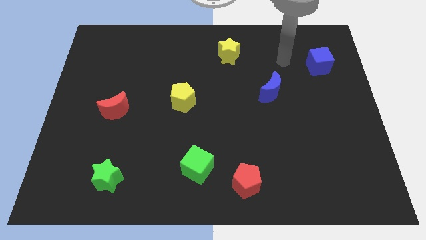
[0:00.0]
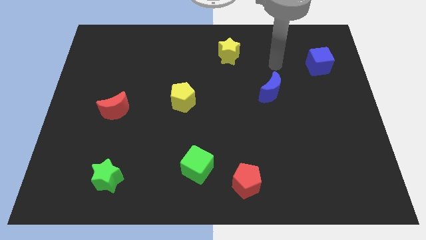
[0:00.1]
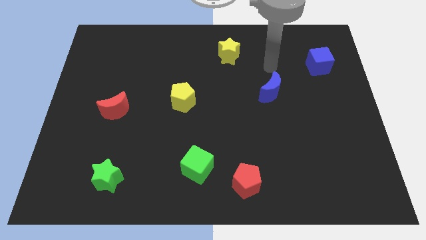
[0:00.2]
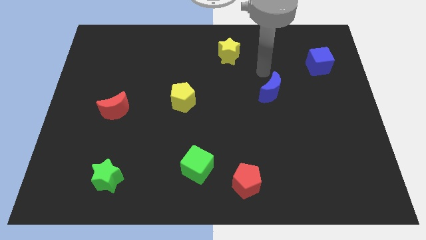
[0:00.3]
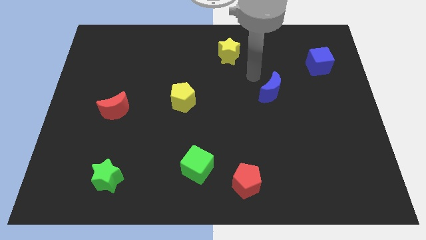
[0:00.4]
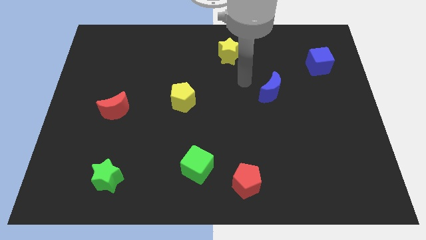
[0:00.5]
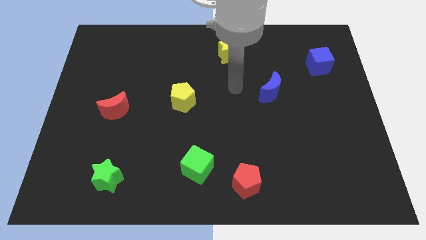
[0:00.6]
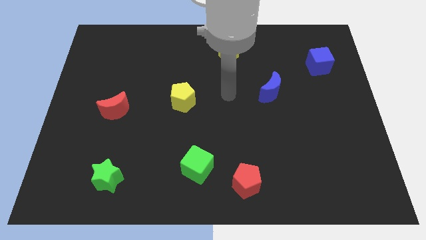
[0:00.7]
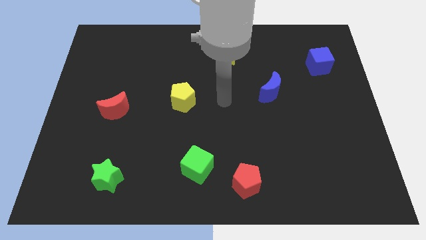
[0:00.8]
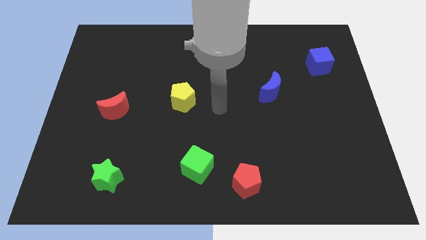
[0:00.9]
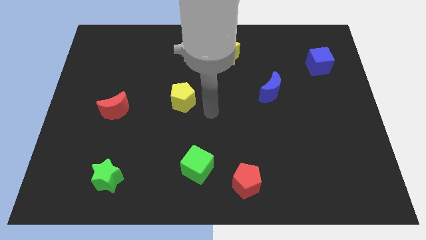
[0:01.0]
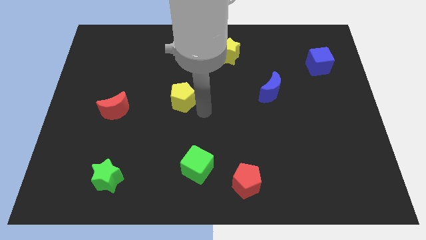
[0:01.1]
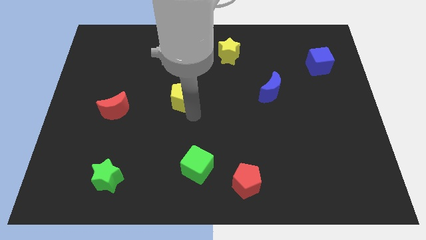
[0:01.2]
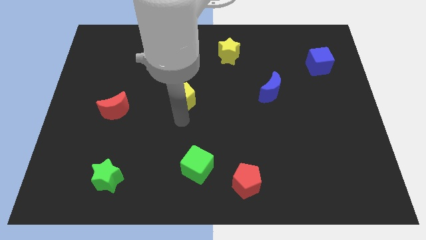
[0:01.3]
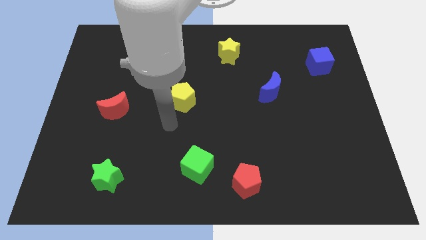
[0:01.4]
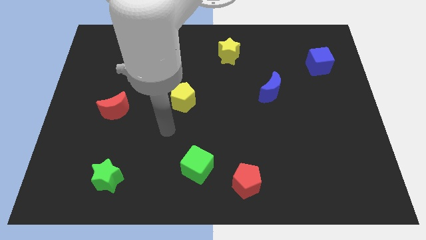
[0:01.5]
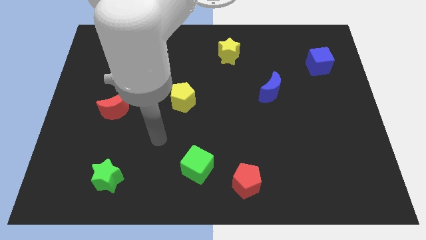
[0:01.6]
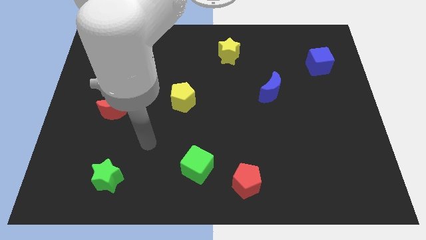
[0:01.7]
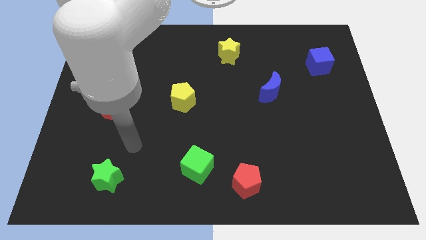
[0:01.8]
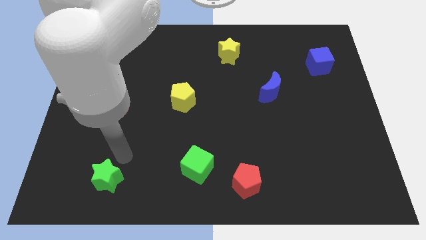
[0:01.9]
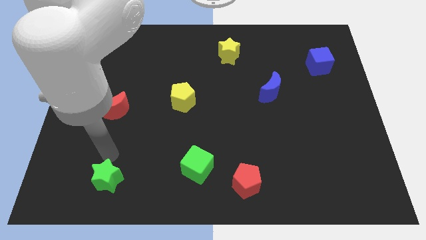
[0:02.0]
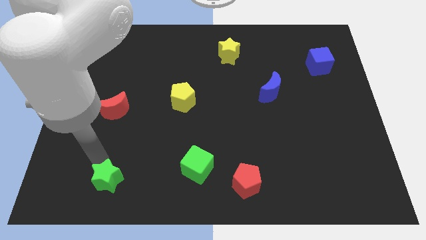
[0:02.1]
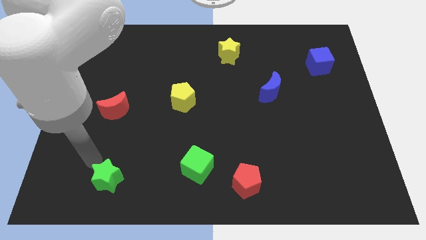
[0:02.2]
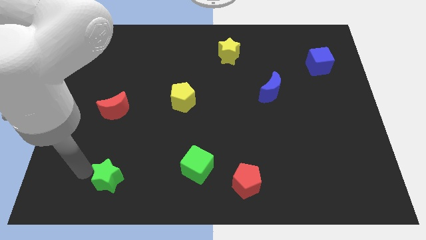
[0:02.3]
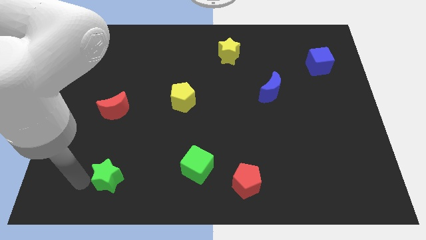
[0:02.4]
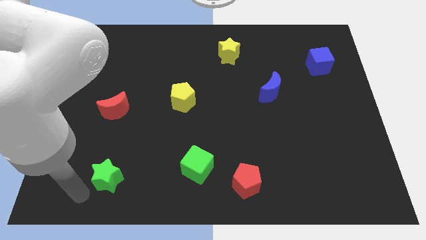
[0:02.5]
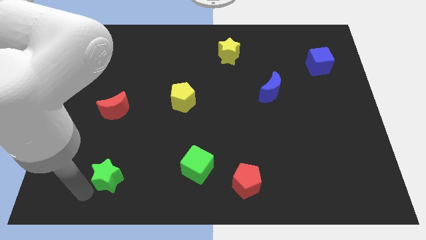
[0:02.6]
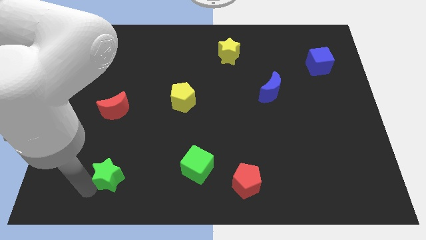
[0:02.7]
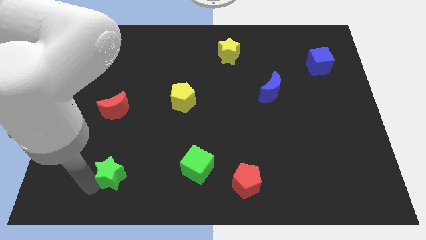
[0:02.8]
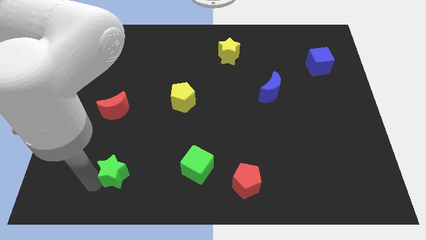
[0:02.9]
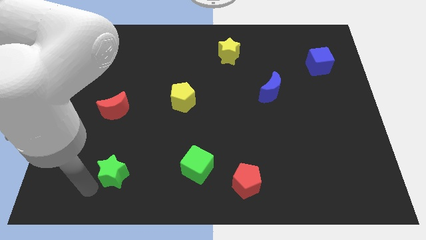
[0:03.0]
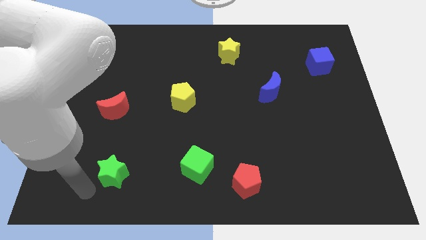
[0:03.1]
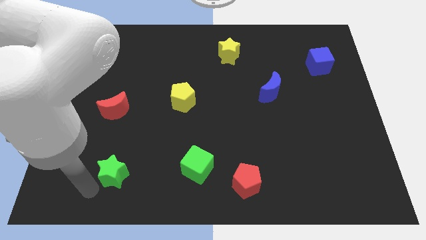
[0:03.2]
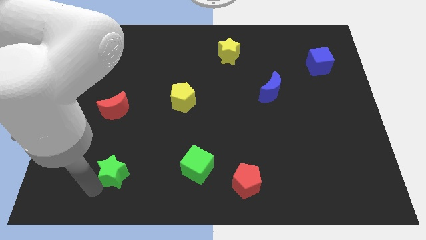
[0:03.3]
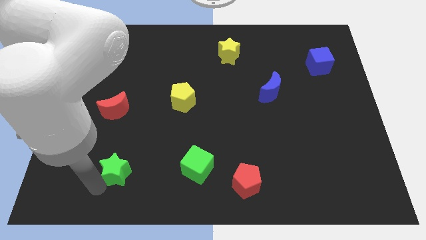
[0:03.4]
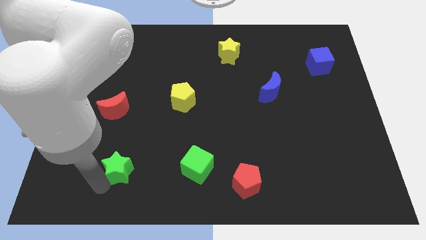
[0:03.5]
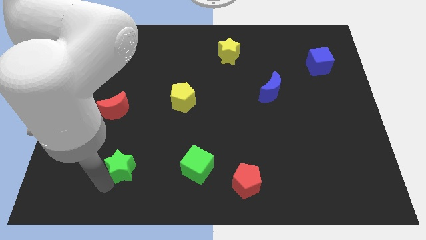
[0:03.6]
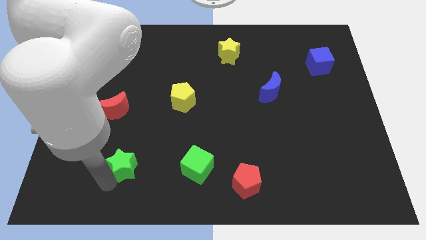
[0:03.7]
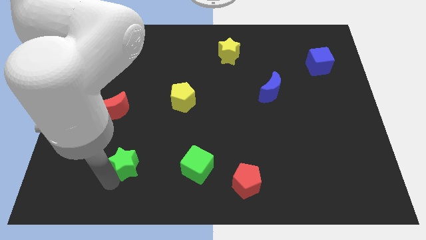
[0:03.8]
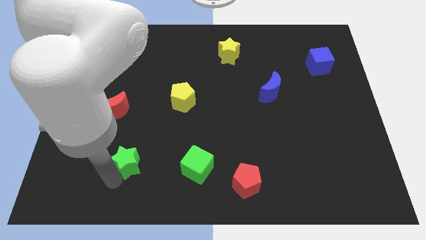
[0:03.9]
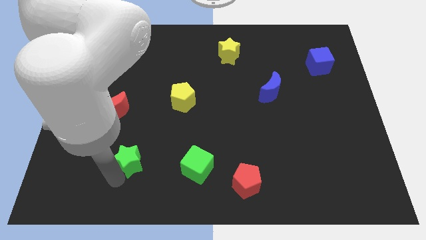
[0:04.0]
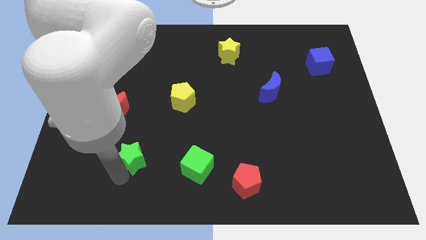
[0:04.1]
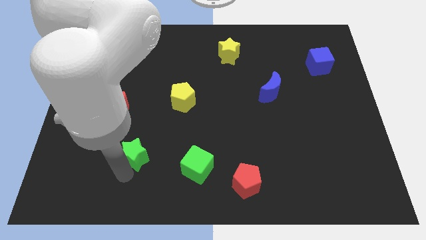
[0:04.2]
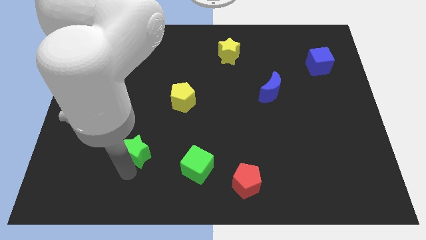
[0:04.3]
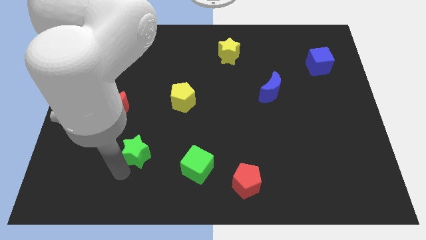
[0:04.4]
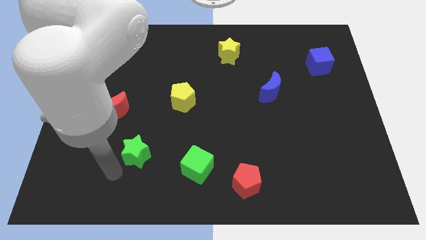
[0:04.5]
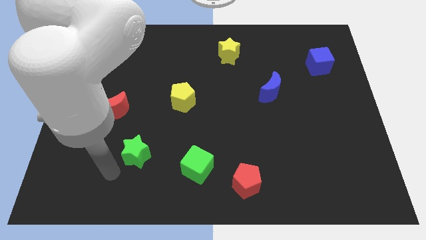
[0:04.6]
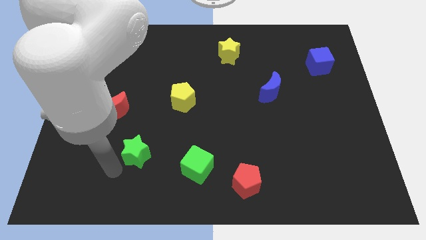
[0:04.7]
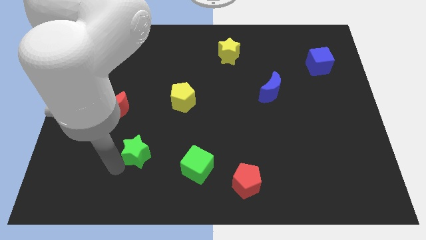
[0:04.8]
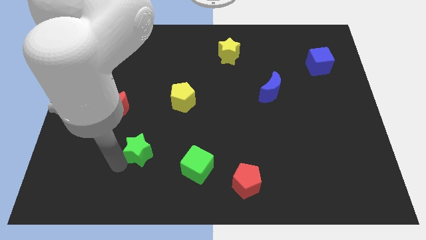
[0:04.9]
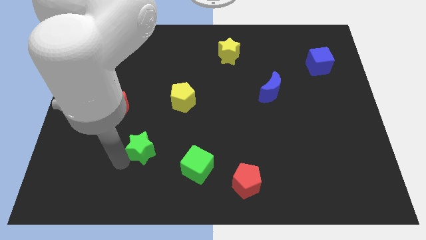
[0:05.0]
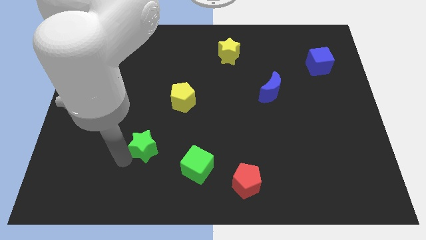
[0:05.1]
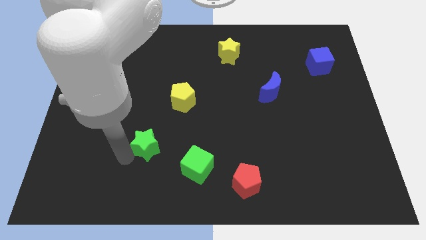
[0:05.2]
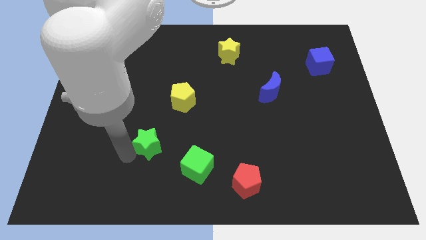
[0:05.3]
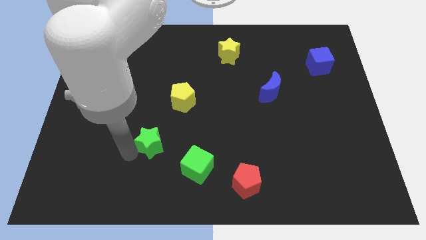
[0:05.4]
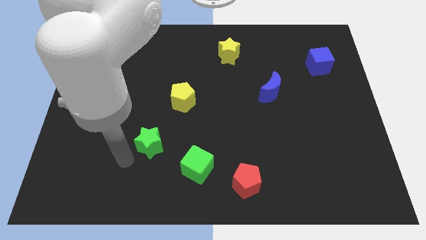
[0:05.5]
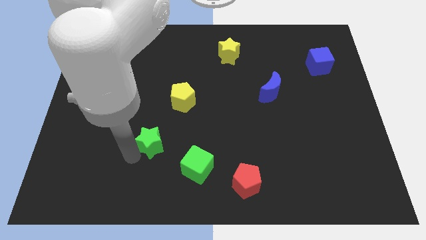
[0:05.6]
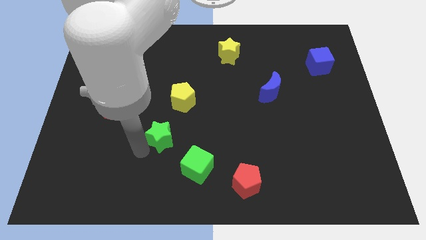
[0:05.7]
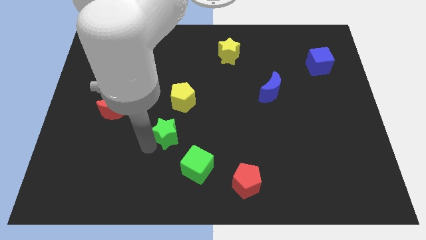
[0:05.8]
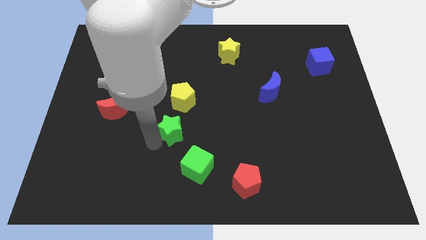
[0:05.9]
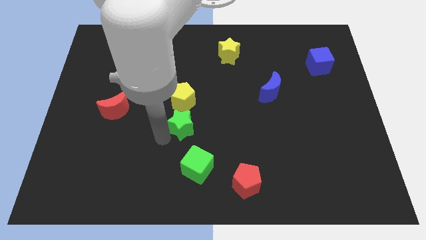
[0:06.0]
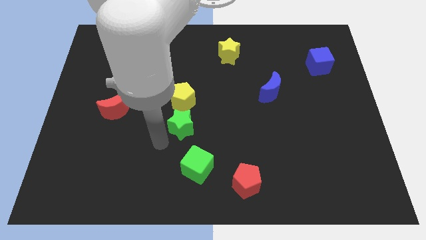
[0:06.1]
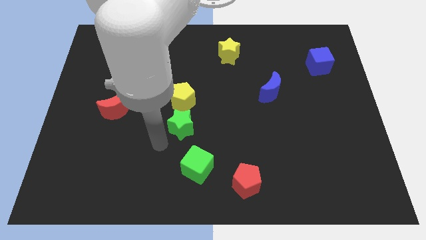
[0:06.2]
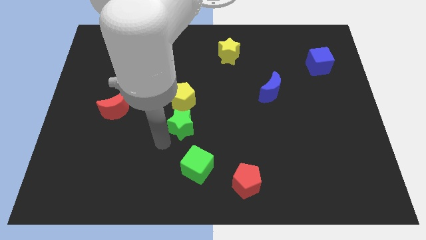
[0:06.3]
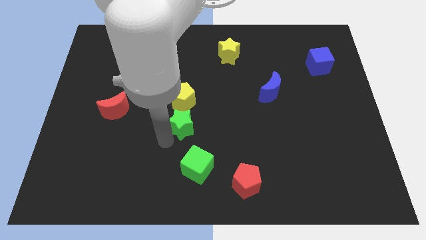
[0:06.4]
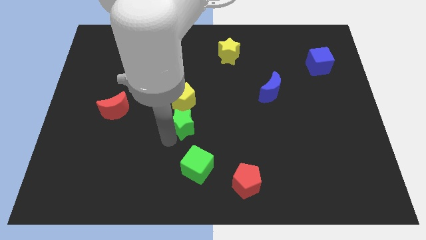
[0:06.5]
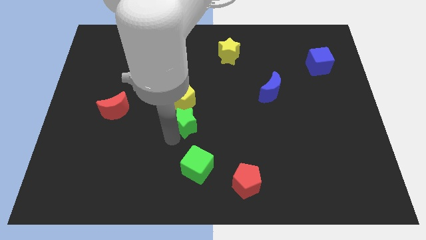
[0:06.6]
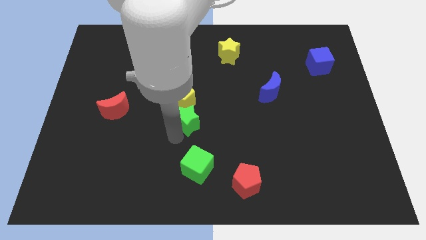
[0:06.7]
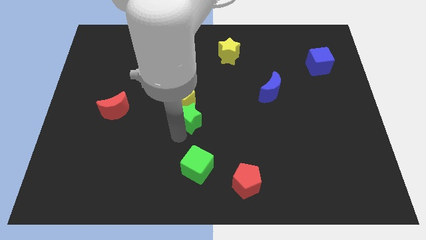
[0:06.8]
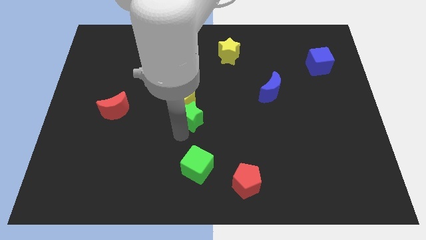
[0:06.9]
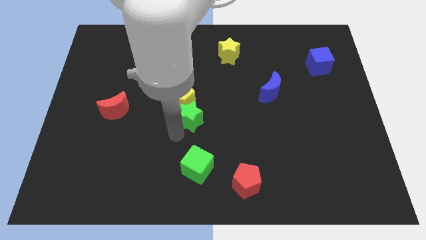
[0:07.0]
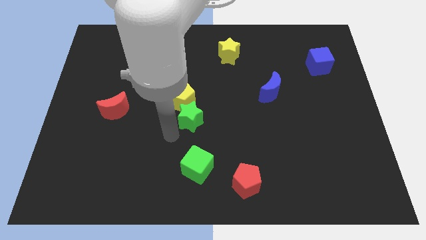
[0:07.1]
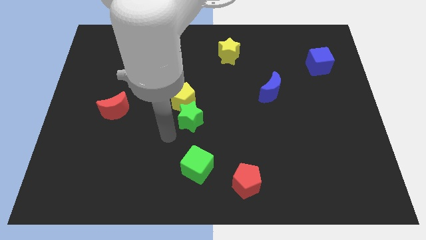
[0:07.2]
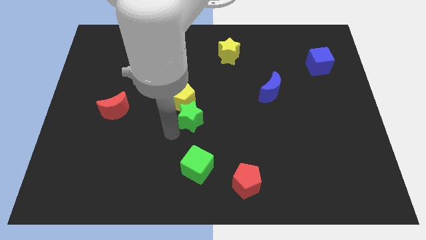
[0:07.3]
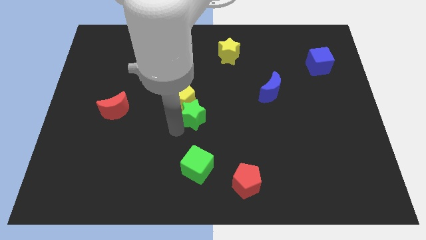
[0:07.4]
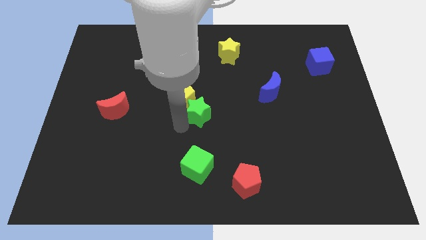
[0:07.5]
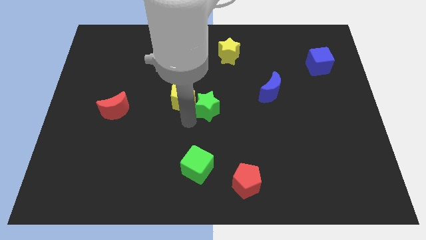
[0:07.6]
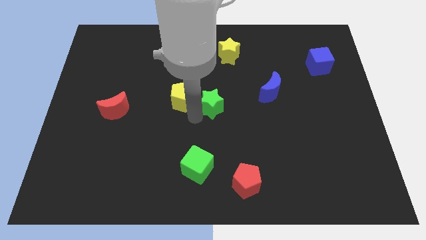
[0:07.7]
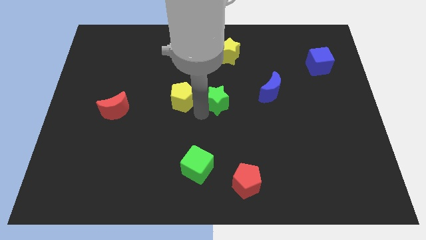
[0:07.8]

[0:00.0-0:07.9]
push the green star to the left side of the blue moon

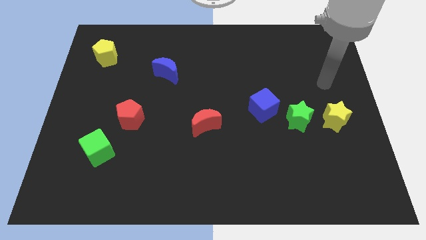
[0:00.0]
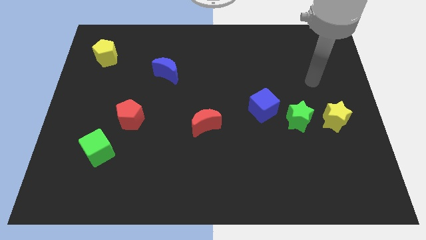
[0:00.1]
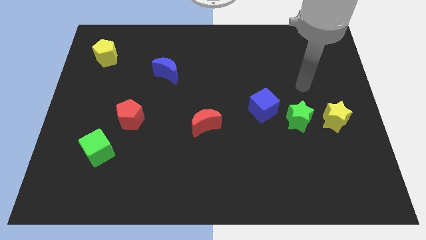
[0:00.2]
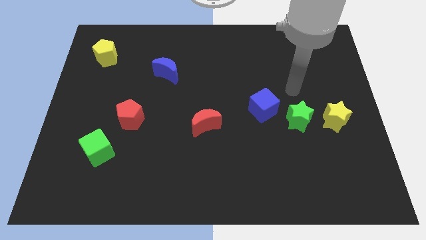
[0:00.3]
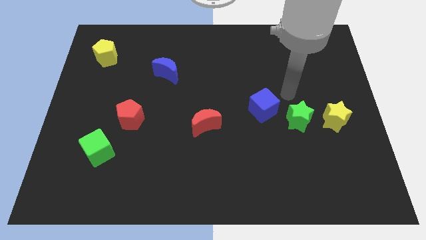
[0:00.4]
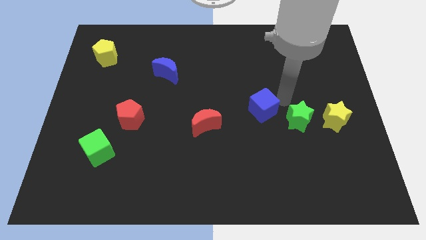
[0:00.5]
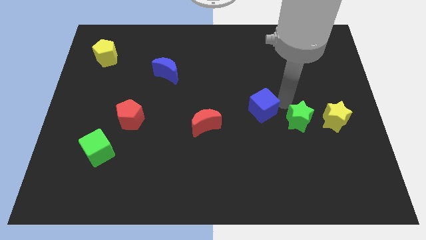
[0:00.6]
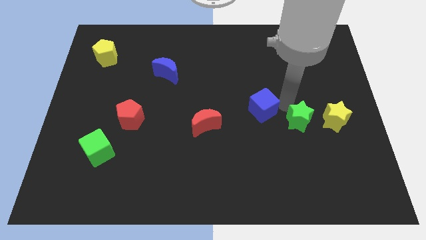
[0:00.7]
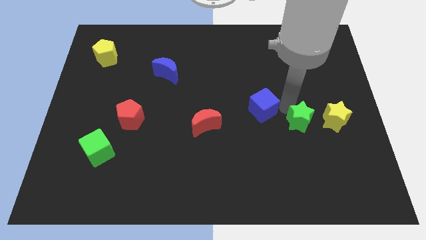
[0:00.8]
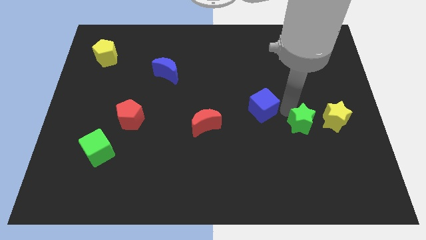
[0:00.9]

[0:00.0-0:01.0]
move the green star to the bottom left side of the yellow star
